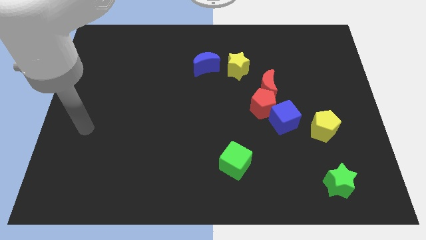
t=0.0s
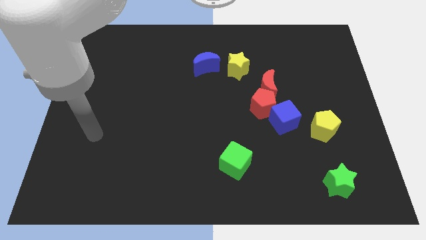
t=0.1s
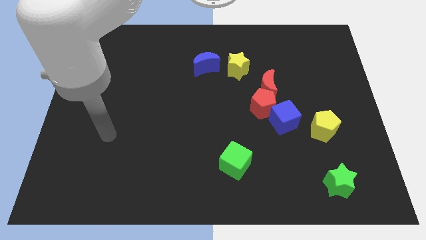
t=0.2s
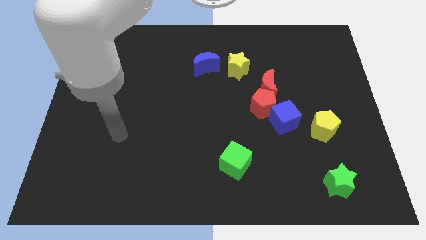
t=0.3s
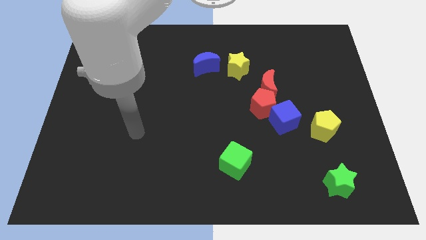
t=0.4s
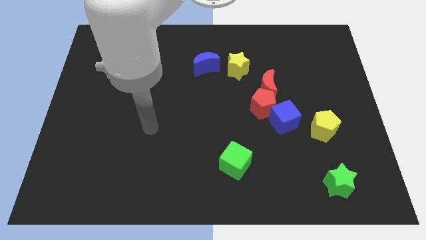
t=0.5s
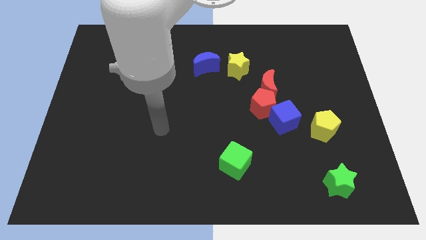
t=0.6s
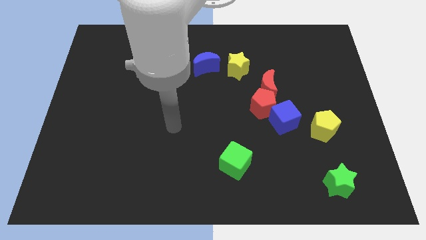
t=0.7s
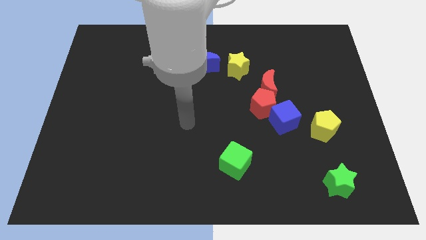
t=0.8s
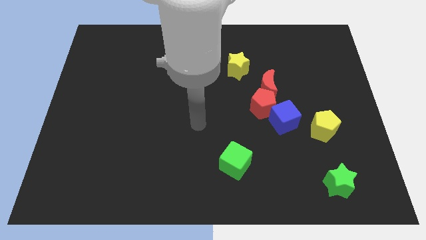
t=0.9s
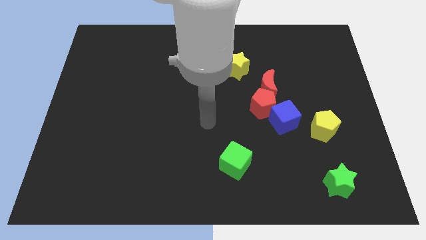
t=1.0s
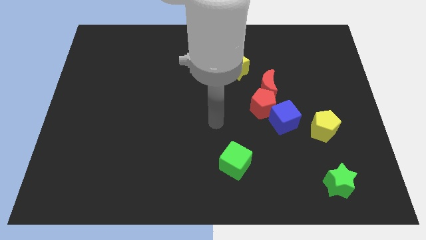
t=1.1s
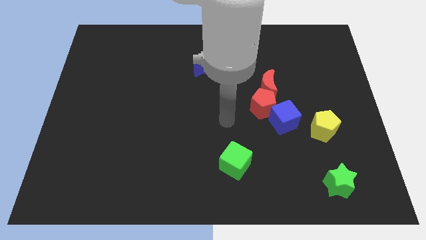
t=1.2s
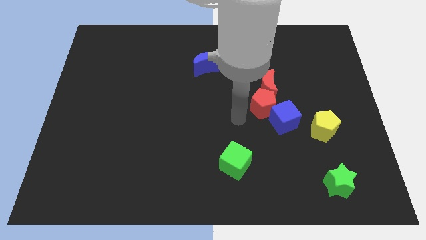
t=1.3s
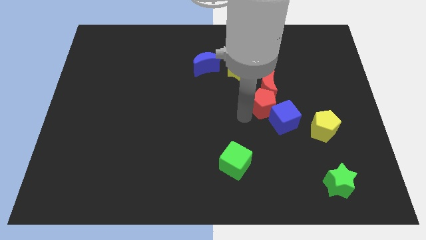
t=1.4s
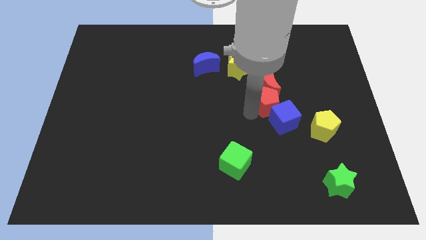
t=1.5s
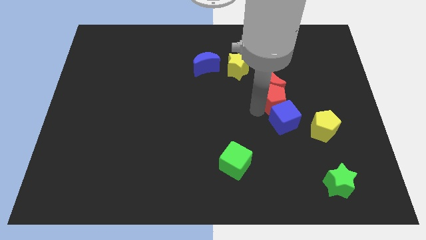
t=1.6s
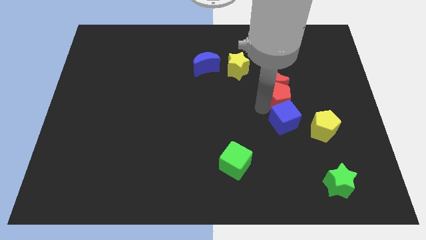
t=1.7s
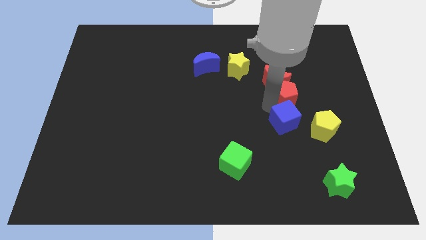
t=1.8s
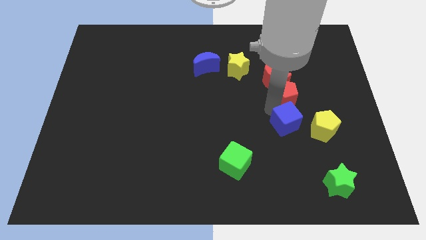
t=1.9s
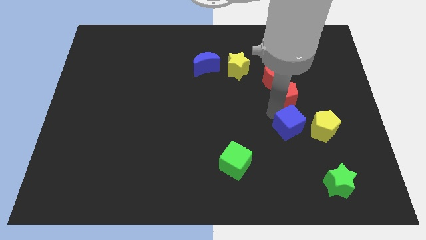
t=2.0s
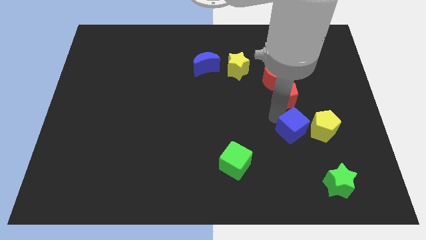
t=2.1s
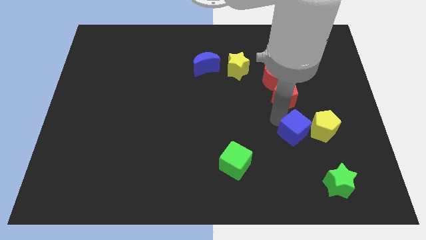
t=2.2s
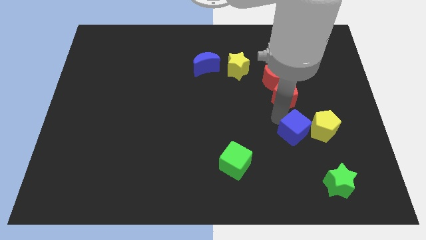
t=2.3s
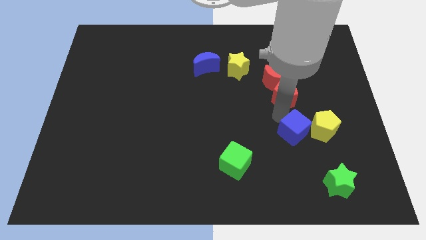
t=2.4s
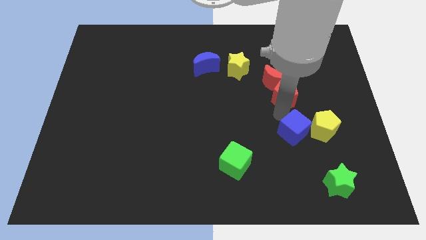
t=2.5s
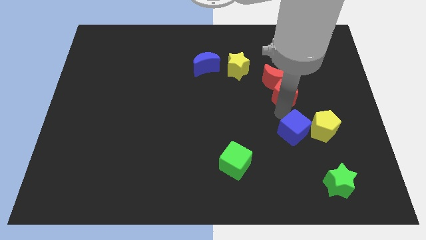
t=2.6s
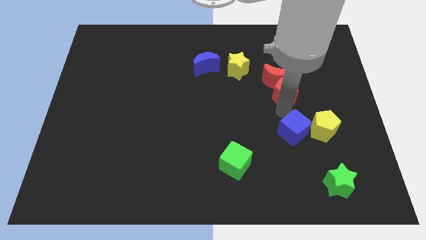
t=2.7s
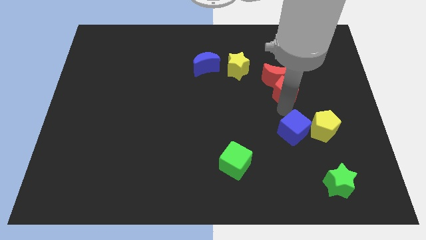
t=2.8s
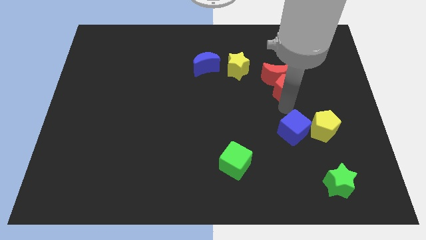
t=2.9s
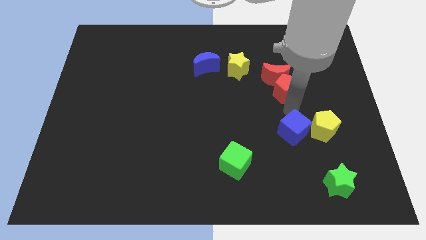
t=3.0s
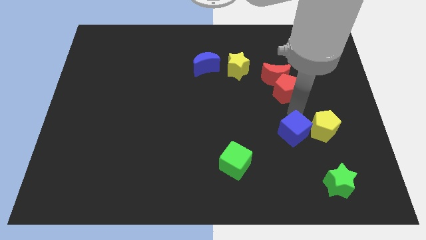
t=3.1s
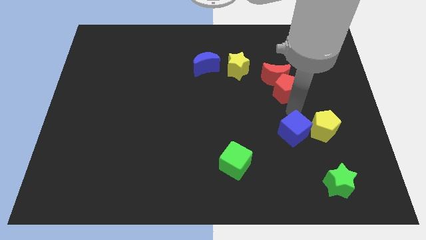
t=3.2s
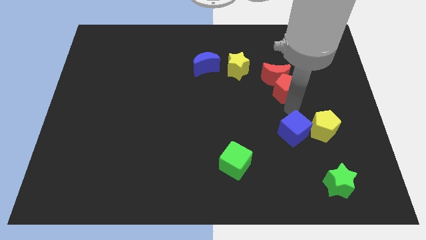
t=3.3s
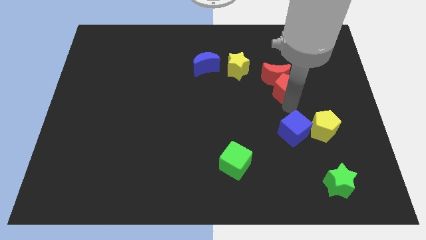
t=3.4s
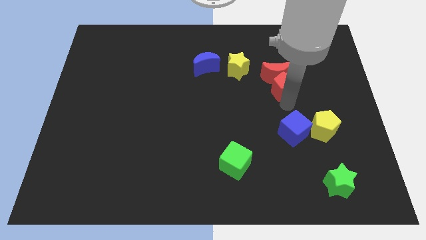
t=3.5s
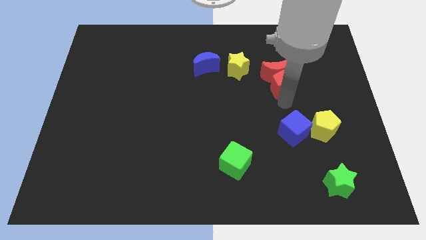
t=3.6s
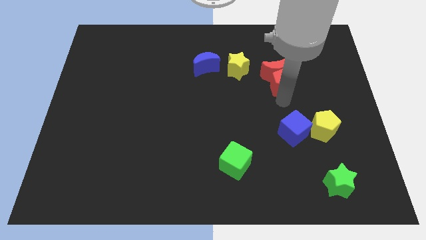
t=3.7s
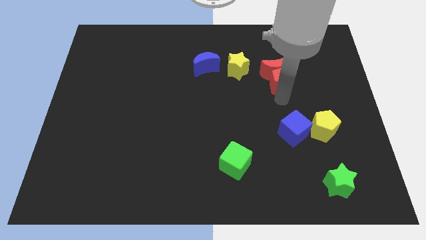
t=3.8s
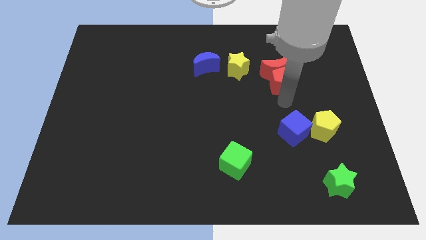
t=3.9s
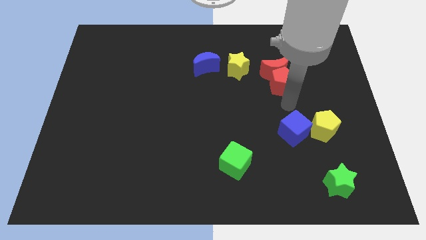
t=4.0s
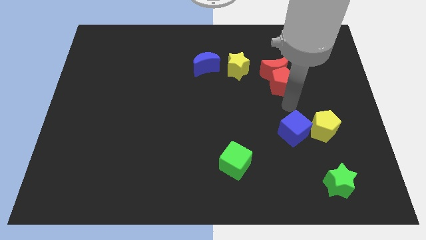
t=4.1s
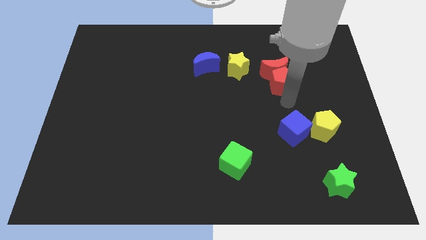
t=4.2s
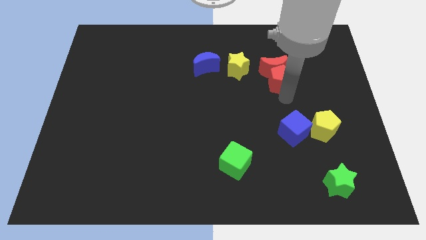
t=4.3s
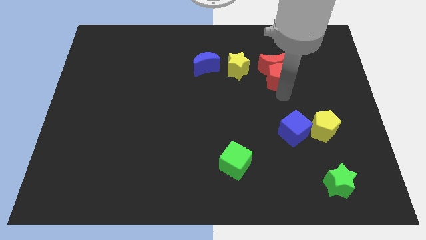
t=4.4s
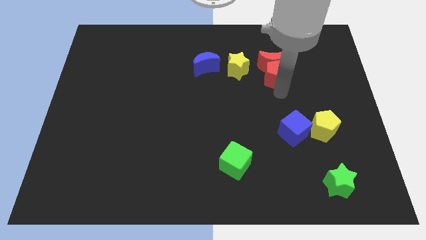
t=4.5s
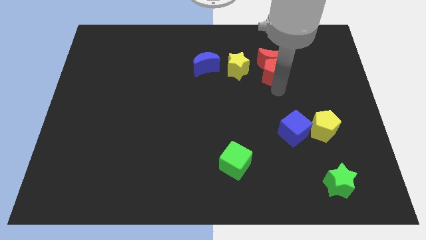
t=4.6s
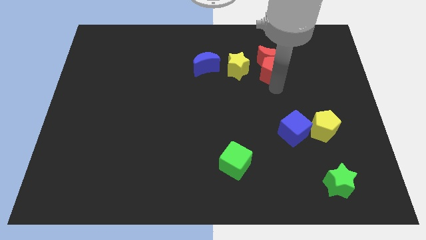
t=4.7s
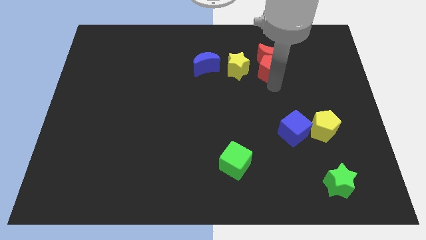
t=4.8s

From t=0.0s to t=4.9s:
push the red pentagon just right of the blue moon

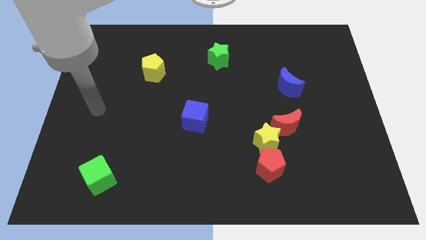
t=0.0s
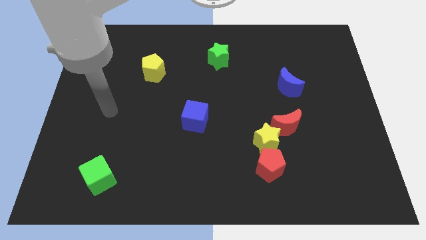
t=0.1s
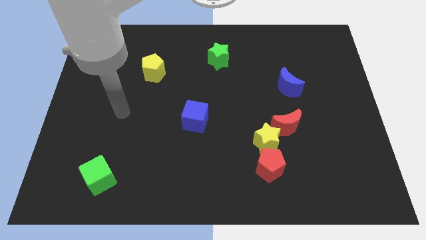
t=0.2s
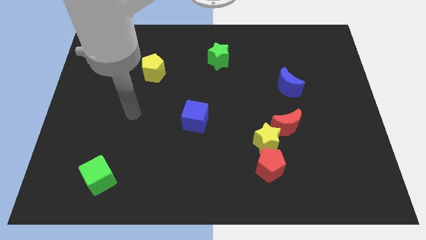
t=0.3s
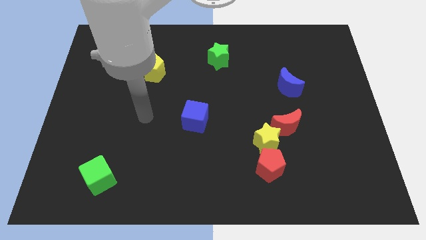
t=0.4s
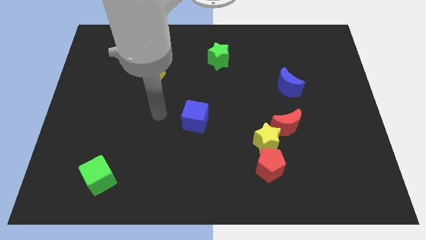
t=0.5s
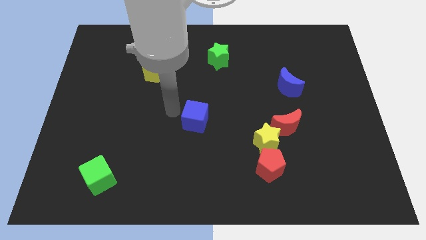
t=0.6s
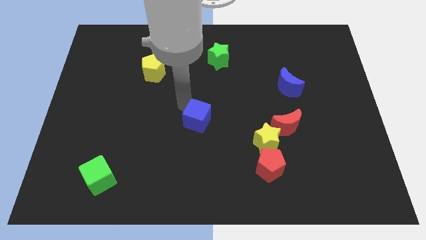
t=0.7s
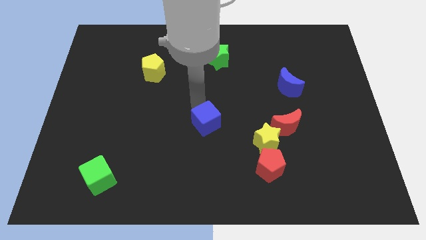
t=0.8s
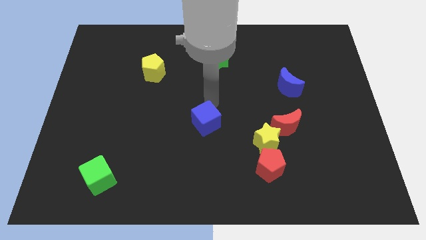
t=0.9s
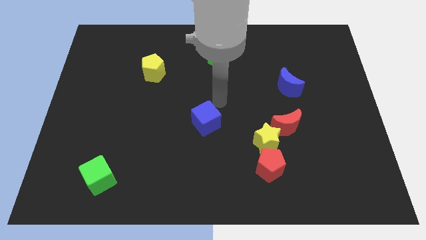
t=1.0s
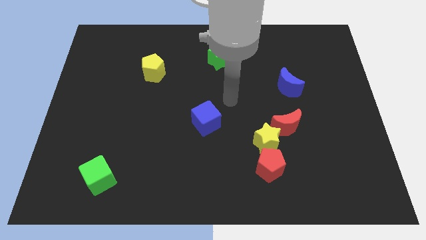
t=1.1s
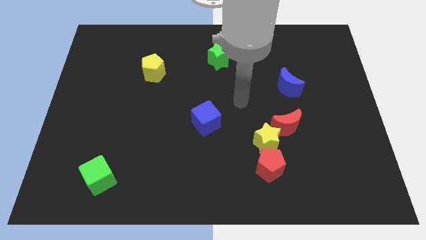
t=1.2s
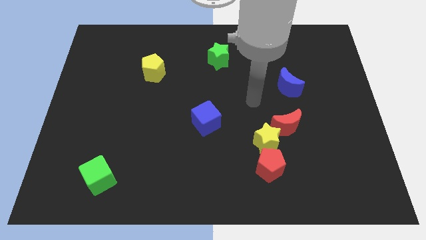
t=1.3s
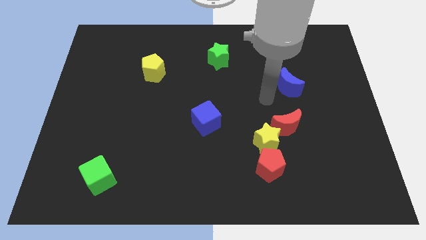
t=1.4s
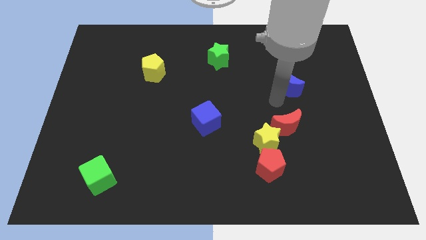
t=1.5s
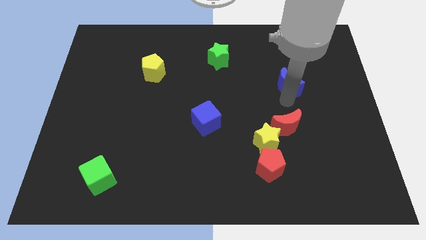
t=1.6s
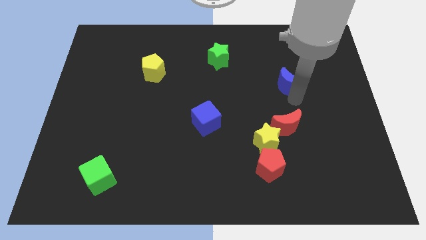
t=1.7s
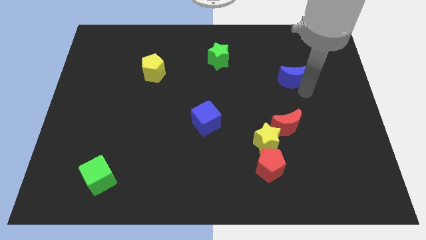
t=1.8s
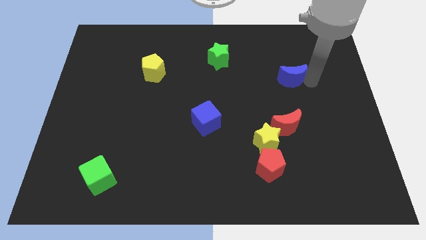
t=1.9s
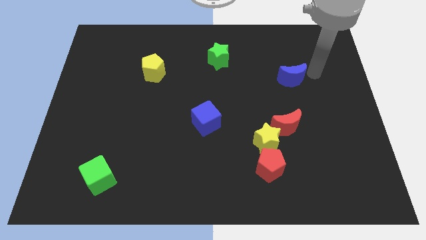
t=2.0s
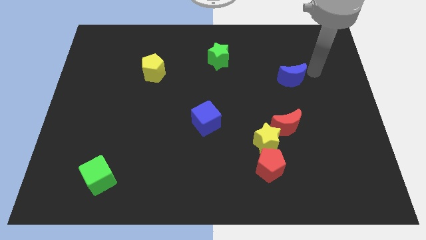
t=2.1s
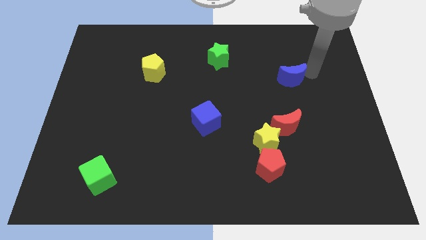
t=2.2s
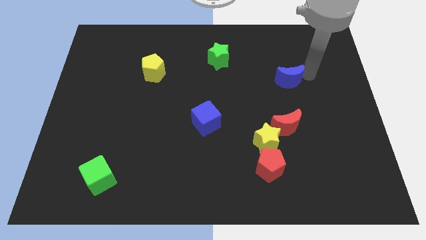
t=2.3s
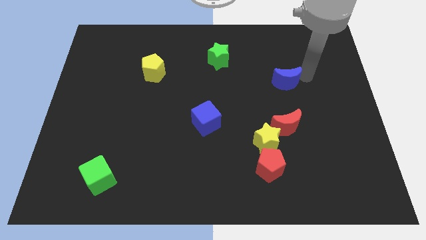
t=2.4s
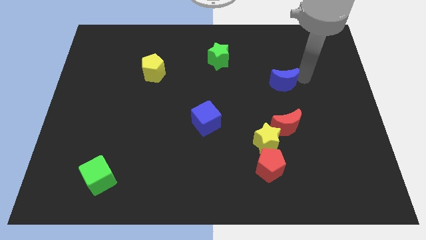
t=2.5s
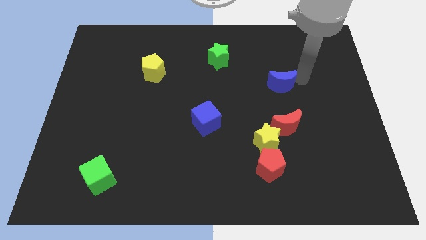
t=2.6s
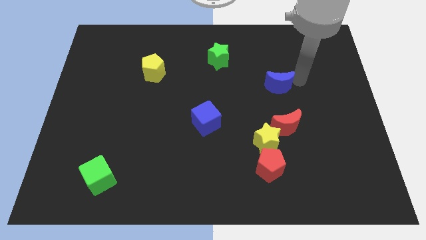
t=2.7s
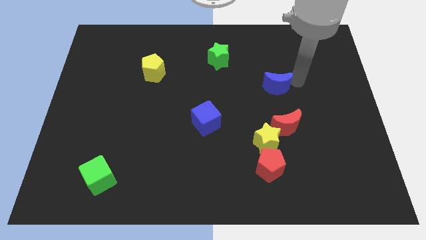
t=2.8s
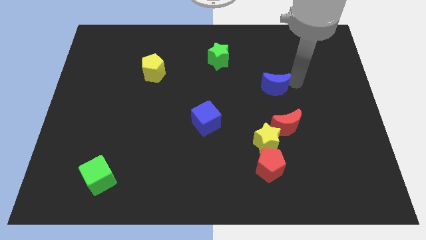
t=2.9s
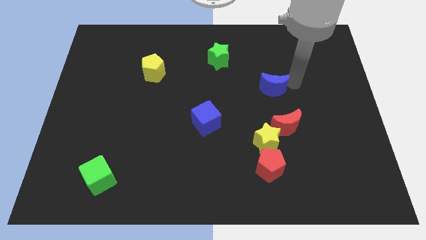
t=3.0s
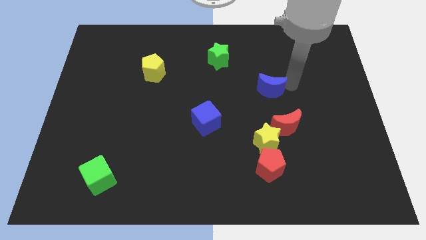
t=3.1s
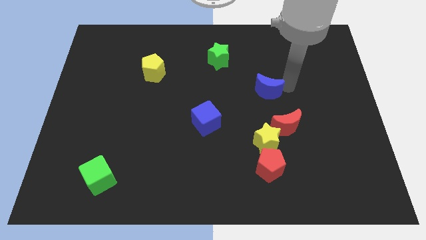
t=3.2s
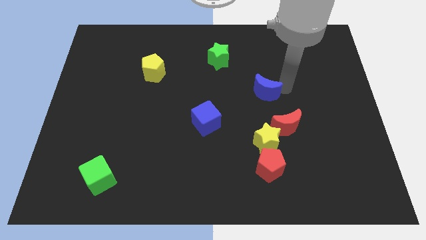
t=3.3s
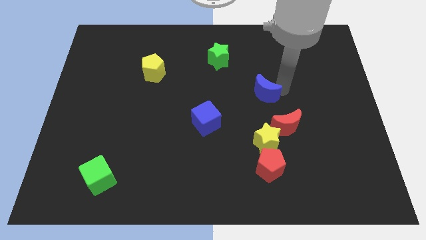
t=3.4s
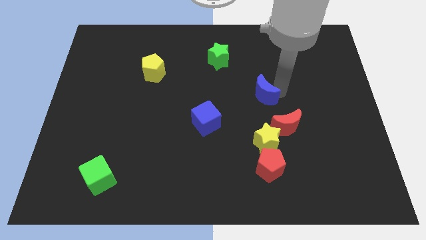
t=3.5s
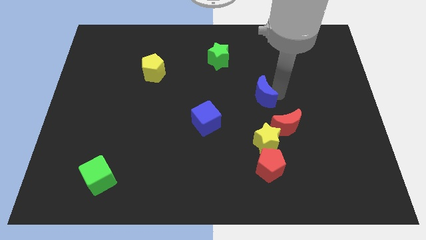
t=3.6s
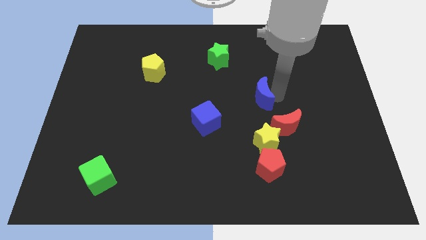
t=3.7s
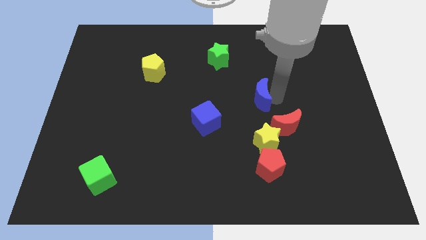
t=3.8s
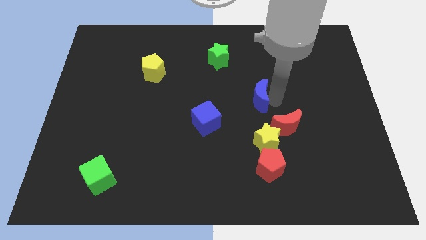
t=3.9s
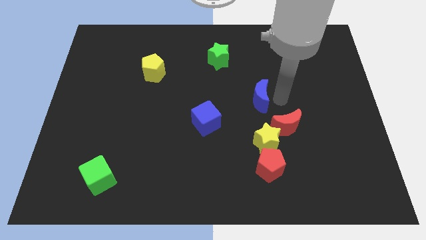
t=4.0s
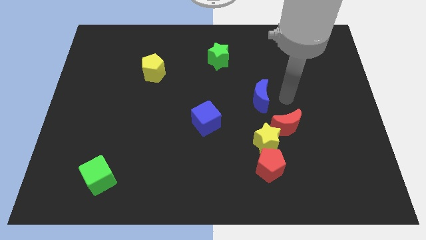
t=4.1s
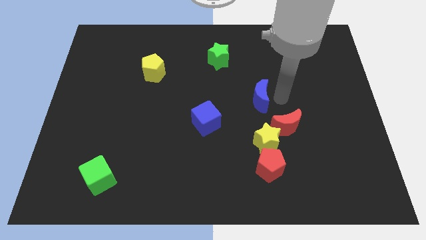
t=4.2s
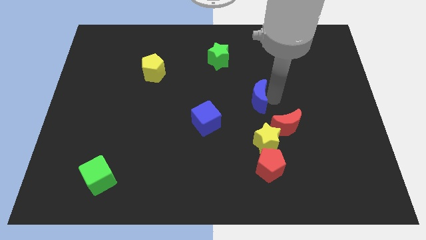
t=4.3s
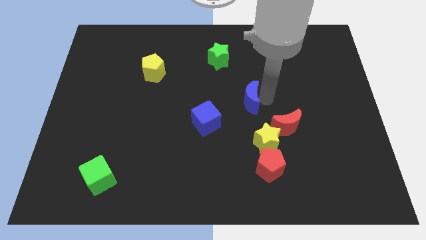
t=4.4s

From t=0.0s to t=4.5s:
push the blue moon to the top right side of the blue cube
